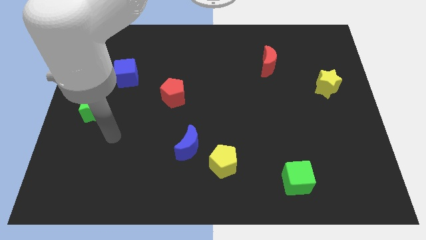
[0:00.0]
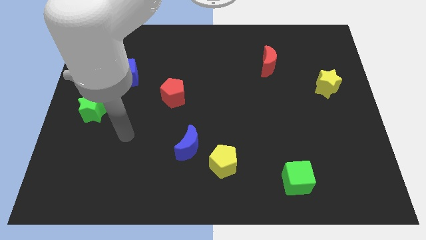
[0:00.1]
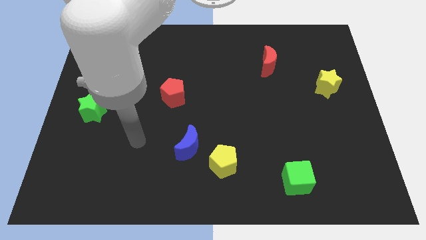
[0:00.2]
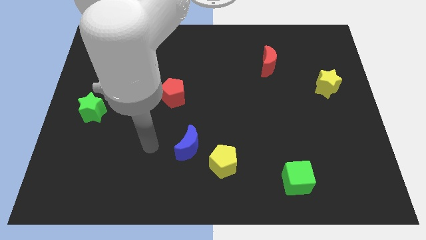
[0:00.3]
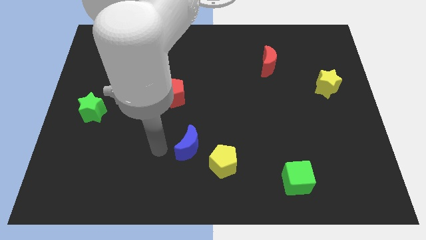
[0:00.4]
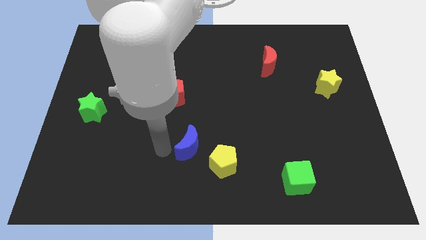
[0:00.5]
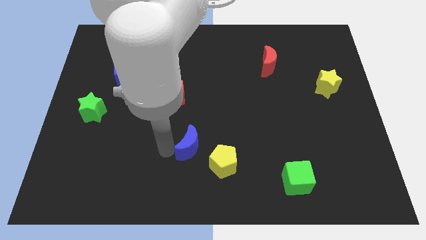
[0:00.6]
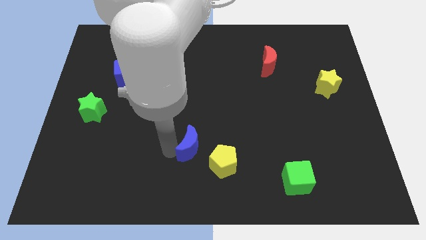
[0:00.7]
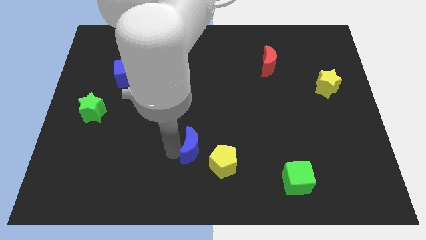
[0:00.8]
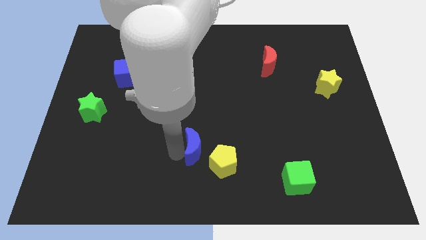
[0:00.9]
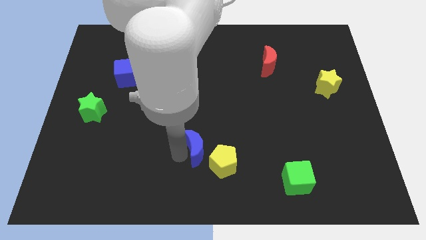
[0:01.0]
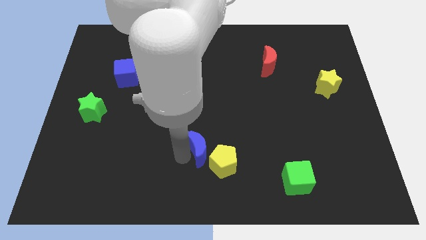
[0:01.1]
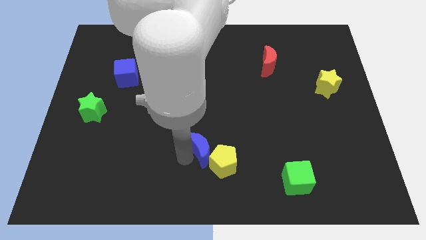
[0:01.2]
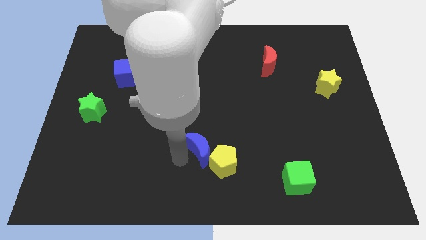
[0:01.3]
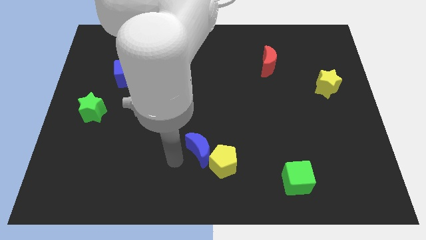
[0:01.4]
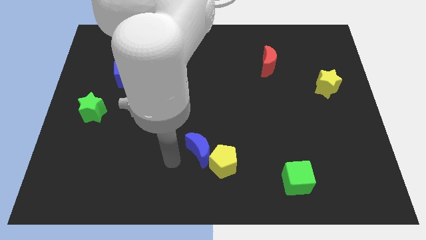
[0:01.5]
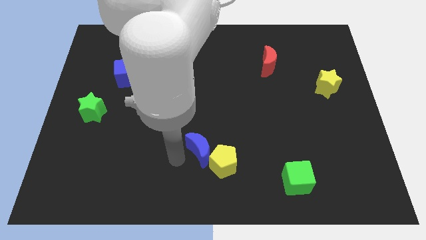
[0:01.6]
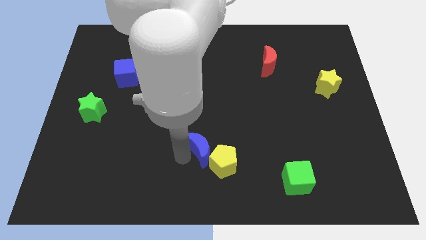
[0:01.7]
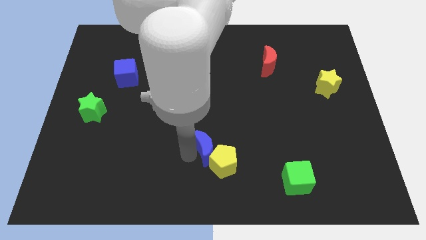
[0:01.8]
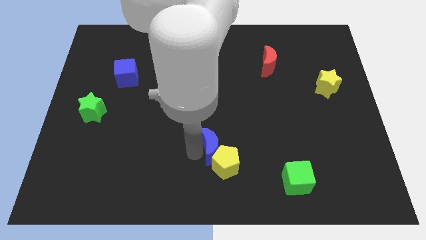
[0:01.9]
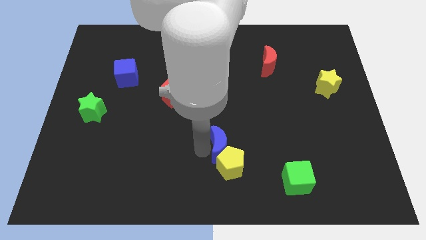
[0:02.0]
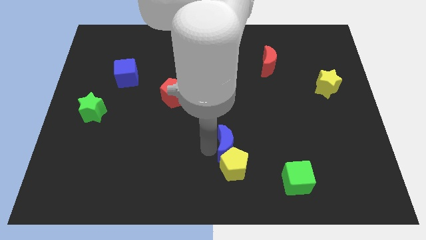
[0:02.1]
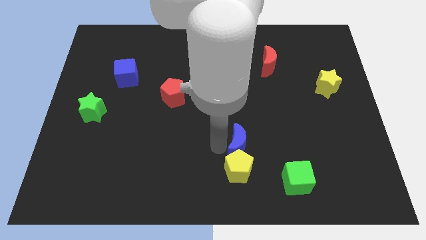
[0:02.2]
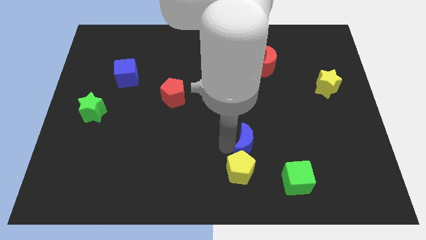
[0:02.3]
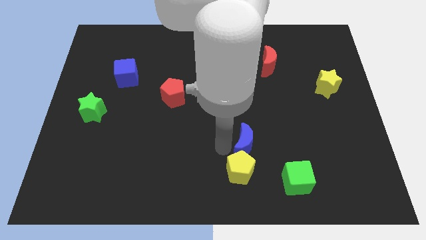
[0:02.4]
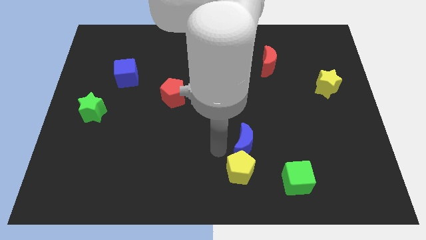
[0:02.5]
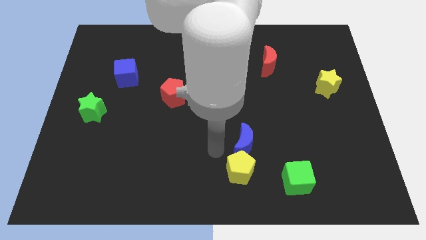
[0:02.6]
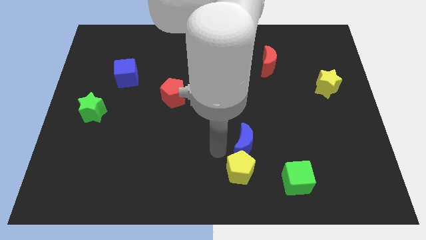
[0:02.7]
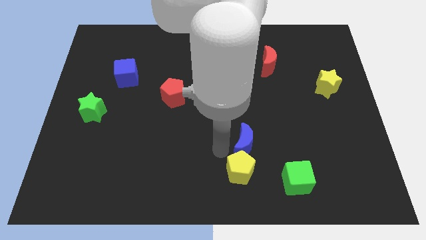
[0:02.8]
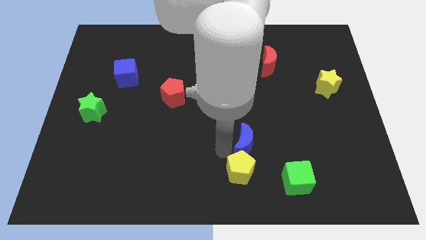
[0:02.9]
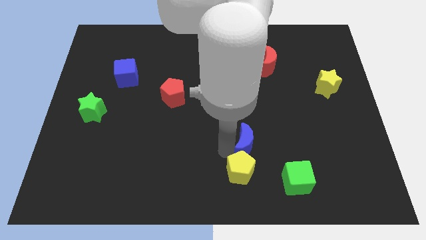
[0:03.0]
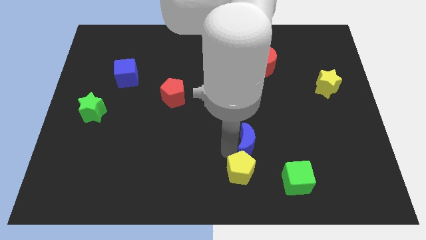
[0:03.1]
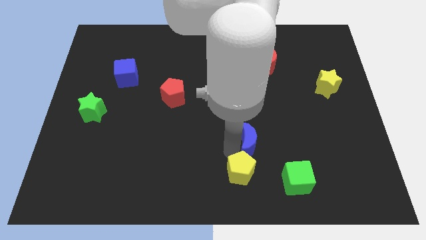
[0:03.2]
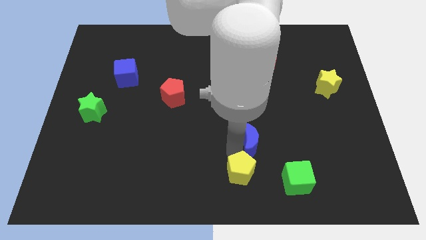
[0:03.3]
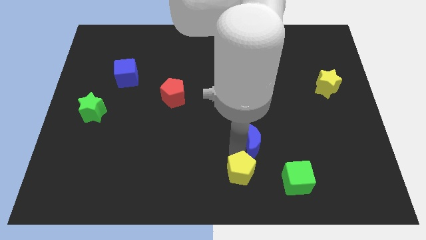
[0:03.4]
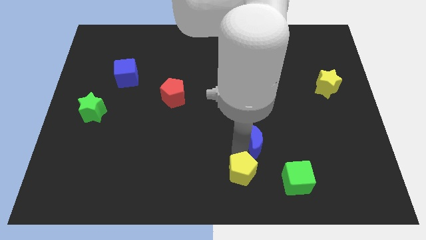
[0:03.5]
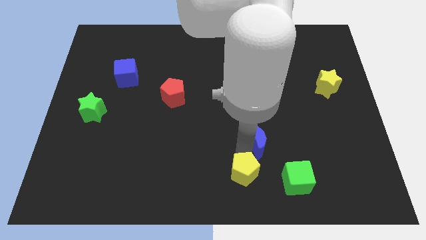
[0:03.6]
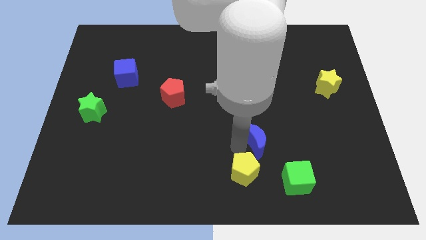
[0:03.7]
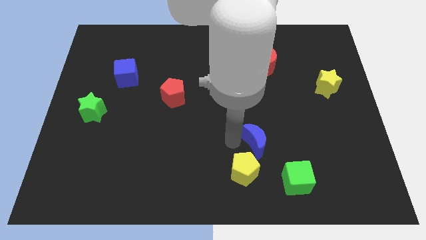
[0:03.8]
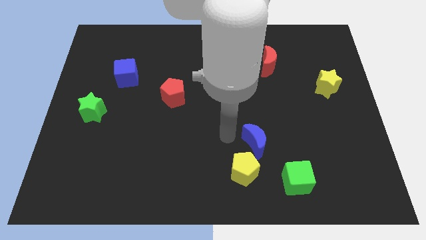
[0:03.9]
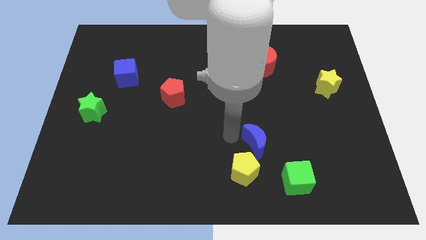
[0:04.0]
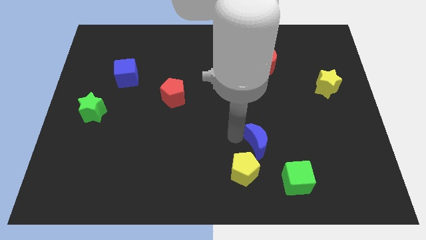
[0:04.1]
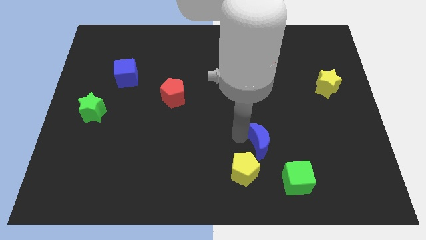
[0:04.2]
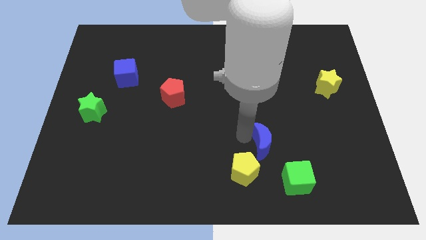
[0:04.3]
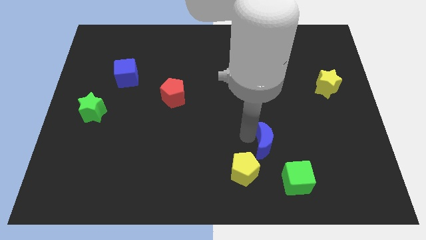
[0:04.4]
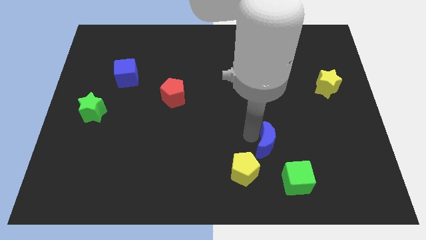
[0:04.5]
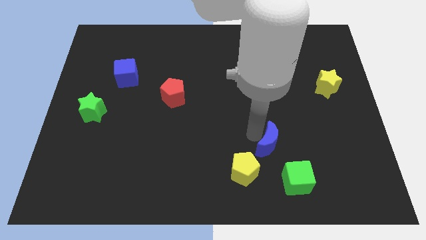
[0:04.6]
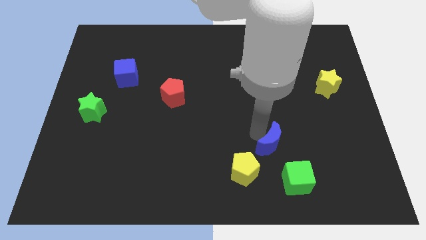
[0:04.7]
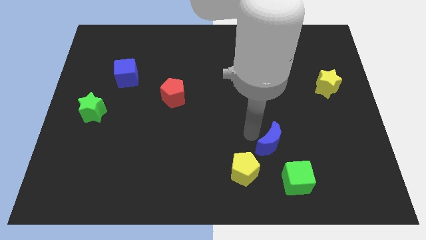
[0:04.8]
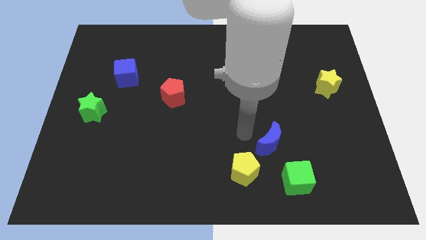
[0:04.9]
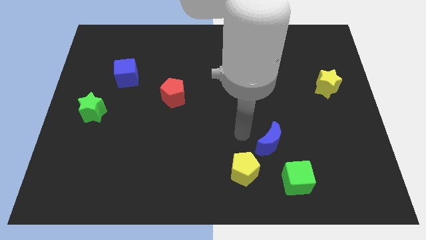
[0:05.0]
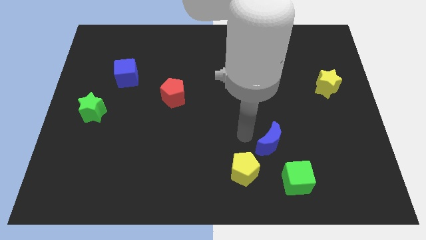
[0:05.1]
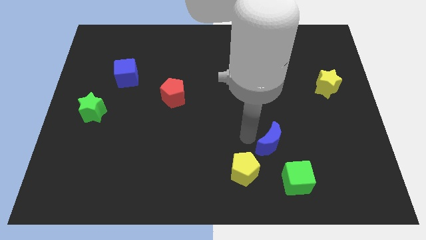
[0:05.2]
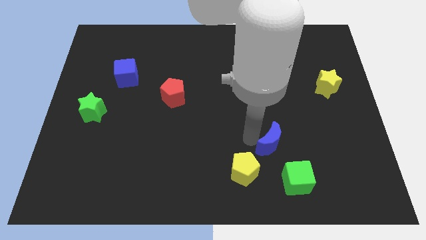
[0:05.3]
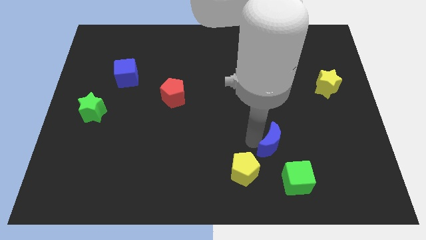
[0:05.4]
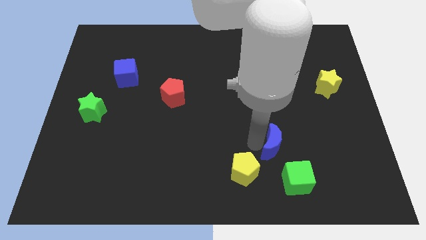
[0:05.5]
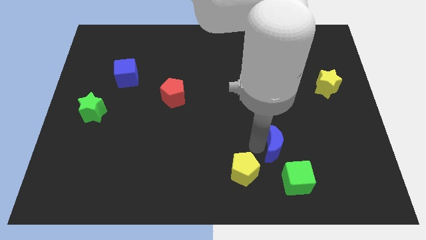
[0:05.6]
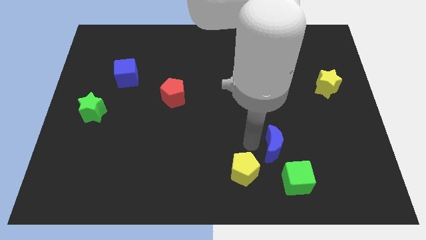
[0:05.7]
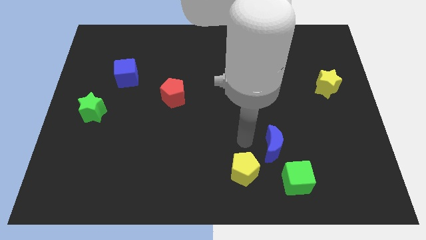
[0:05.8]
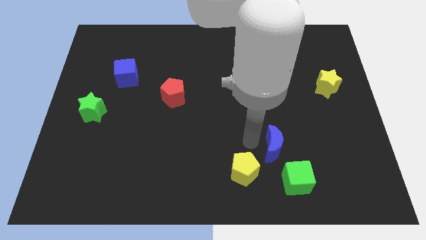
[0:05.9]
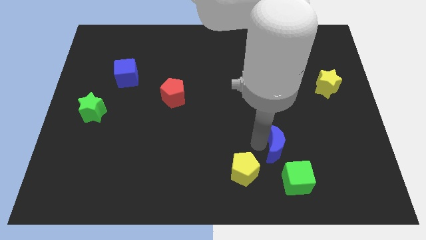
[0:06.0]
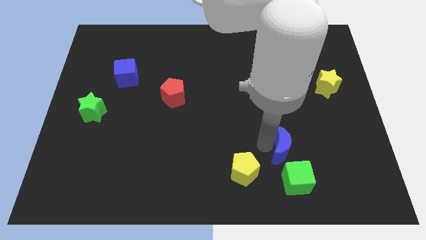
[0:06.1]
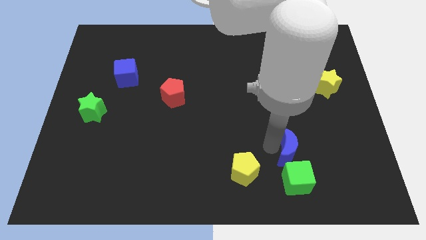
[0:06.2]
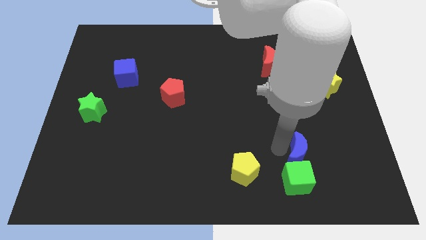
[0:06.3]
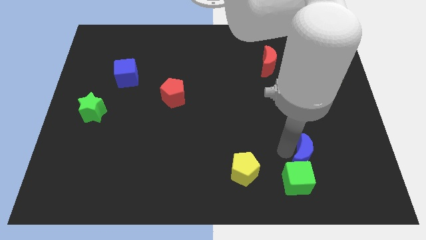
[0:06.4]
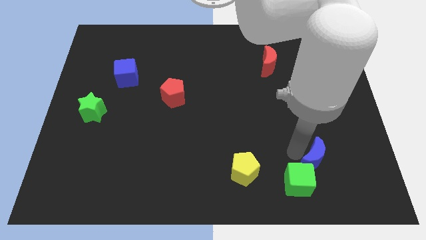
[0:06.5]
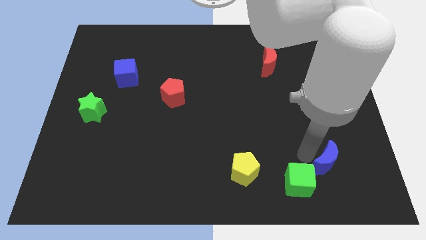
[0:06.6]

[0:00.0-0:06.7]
push the blue moon to the right side of the green cube

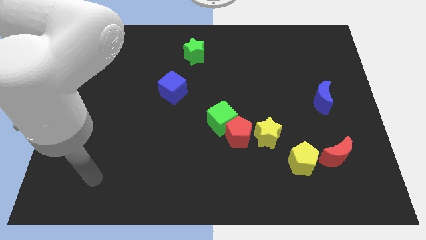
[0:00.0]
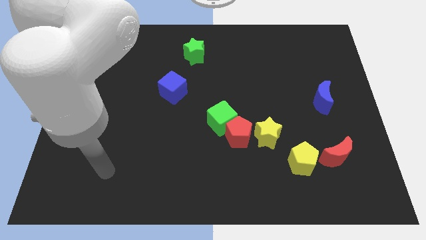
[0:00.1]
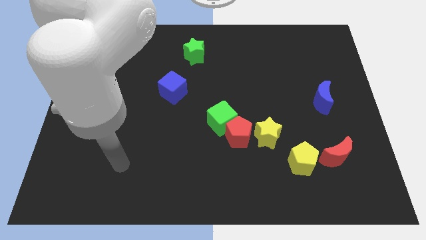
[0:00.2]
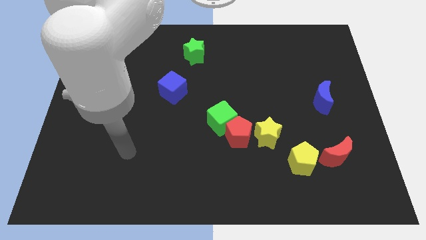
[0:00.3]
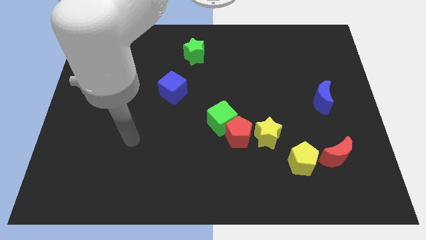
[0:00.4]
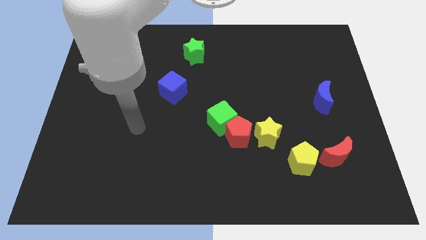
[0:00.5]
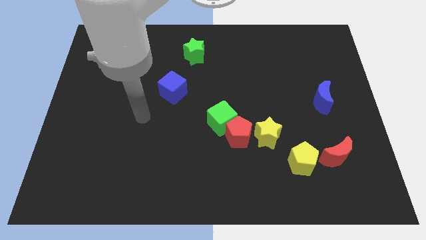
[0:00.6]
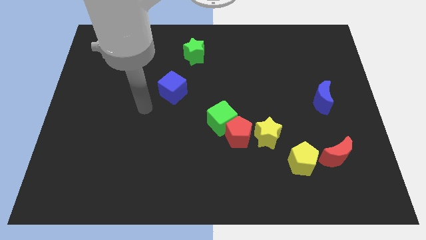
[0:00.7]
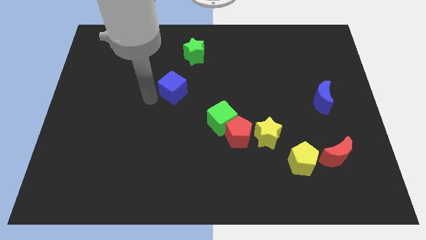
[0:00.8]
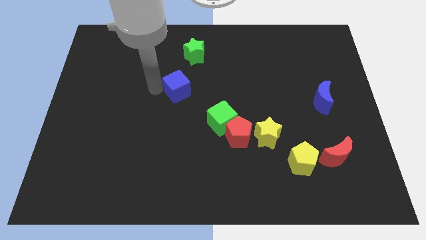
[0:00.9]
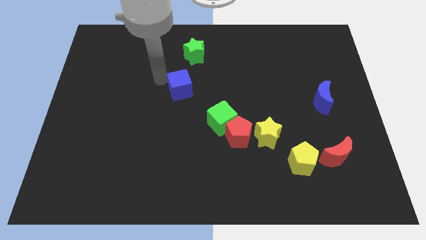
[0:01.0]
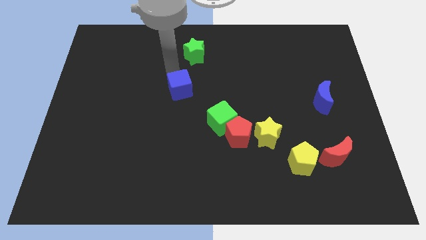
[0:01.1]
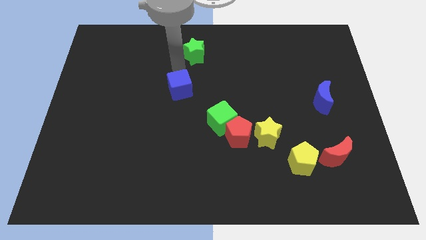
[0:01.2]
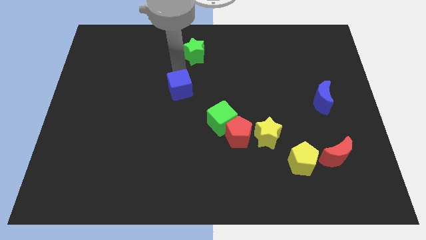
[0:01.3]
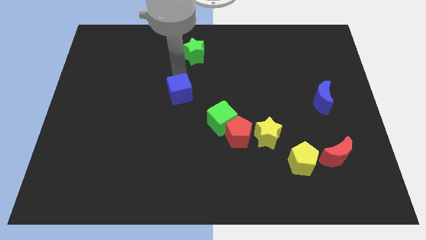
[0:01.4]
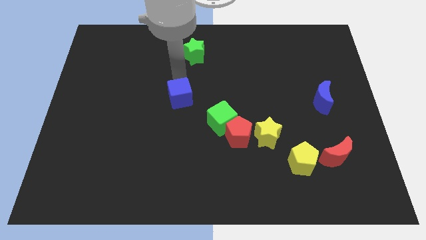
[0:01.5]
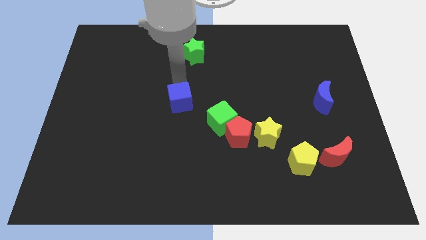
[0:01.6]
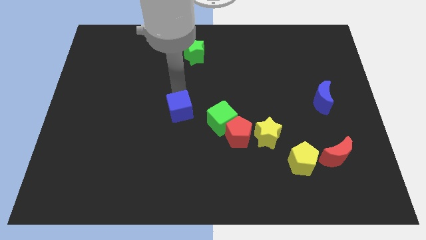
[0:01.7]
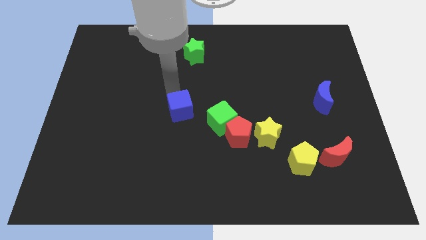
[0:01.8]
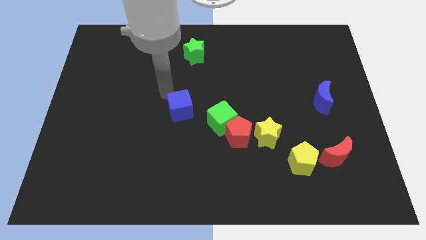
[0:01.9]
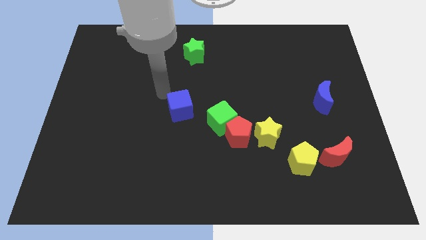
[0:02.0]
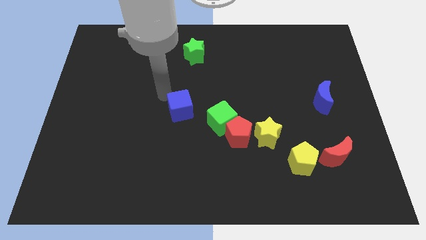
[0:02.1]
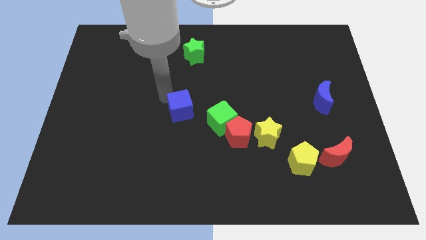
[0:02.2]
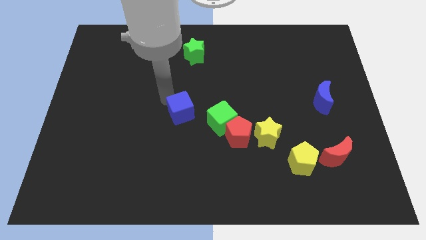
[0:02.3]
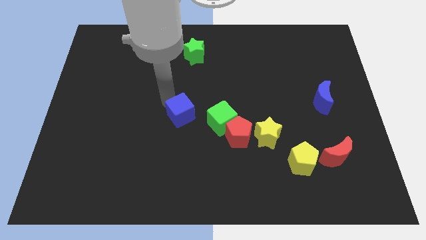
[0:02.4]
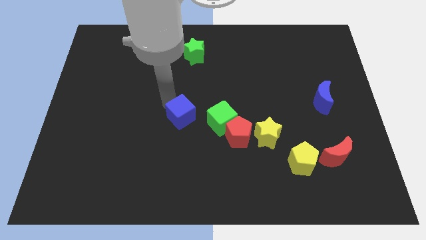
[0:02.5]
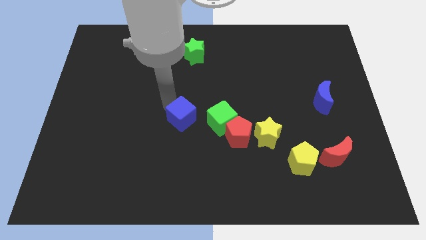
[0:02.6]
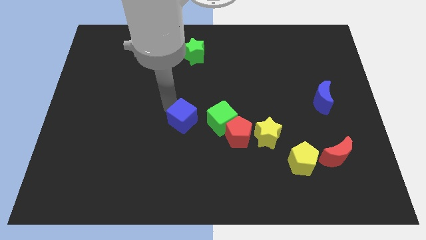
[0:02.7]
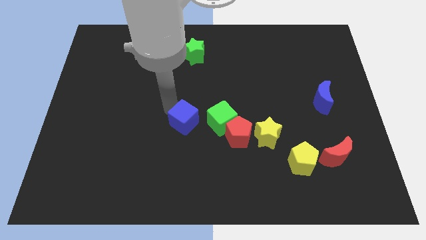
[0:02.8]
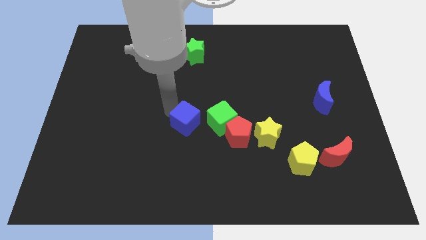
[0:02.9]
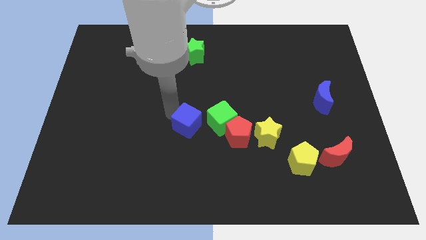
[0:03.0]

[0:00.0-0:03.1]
slide the blue cube to the bottom left of the green cube
